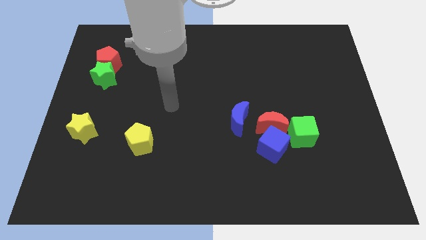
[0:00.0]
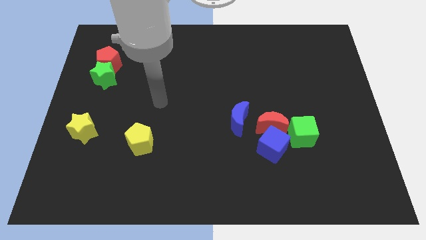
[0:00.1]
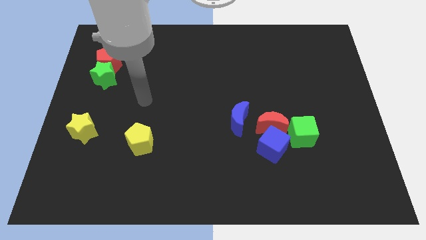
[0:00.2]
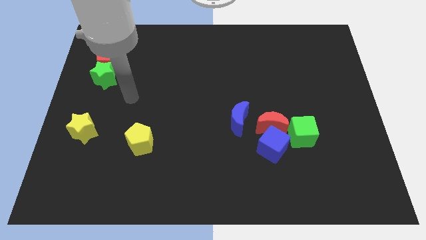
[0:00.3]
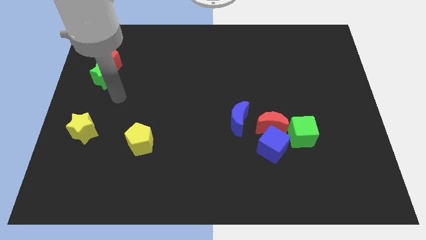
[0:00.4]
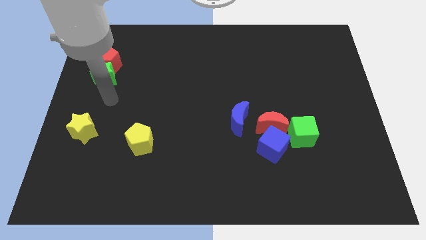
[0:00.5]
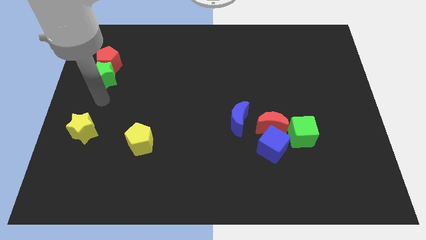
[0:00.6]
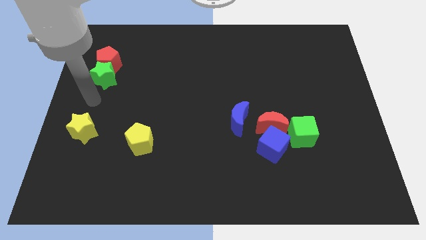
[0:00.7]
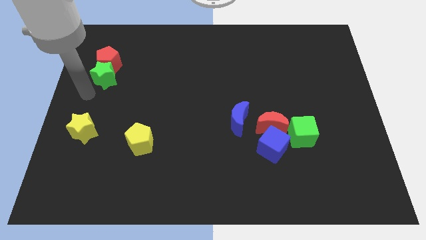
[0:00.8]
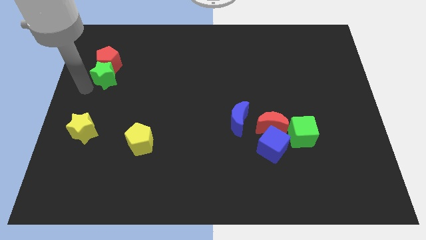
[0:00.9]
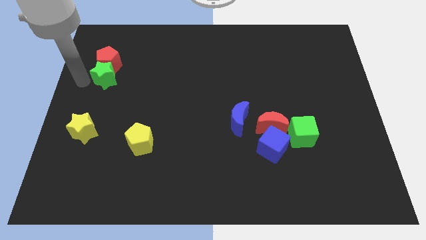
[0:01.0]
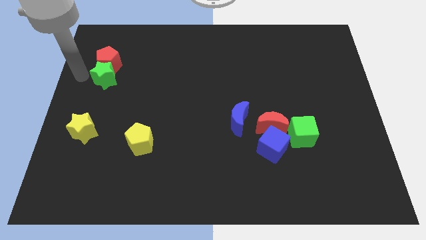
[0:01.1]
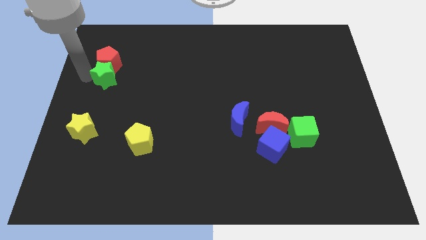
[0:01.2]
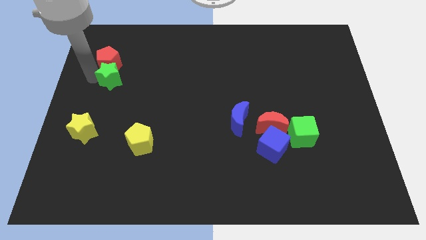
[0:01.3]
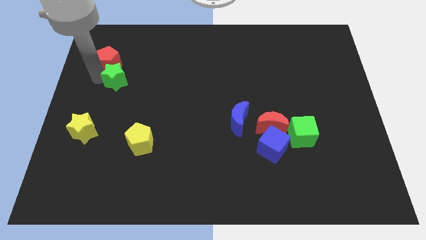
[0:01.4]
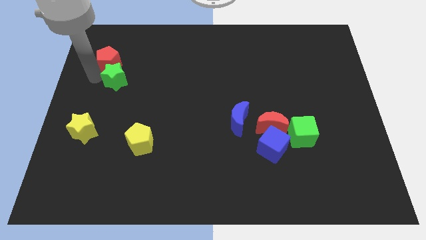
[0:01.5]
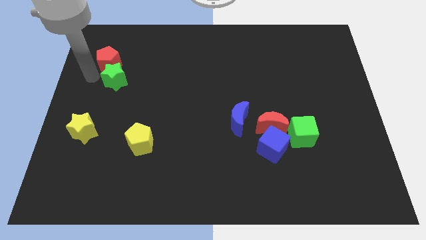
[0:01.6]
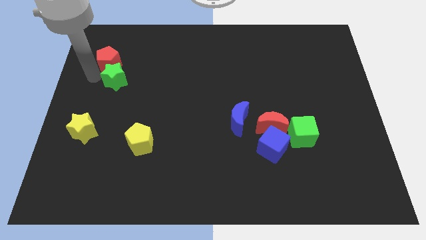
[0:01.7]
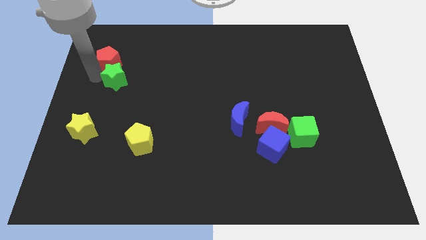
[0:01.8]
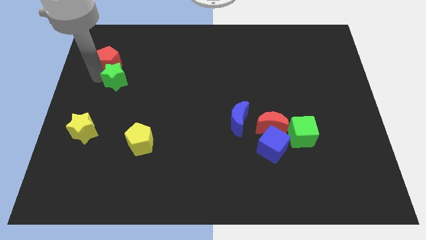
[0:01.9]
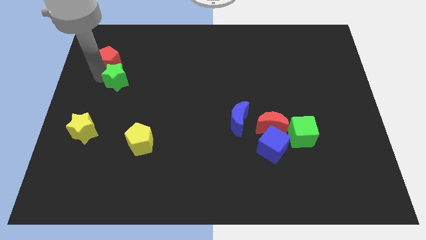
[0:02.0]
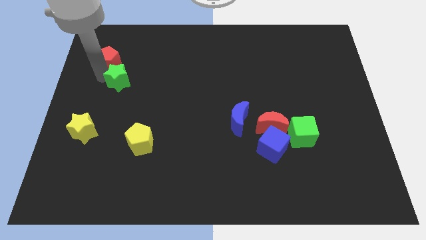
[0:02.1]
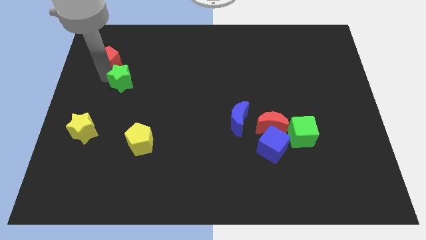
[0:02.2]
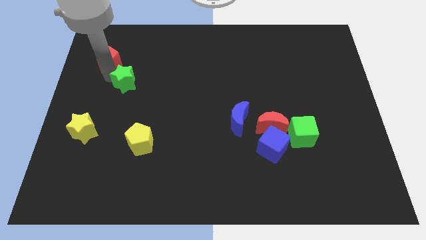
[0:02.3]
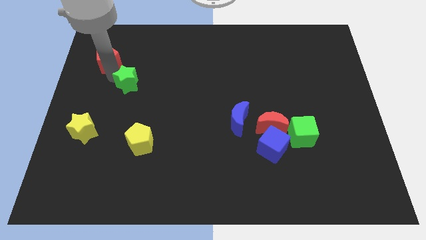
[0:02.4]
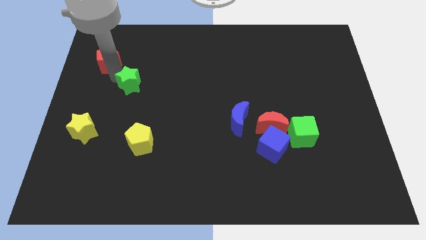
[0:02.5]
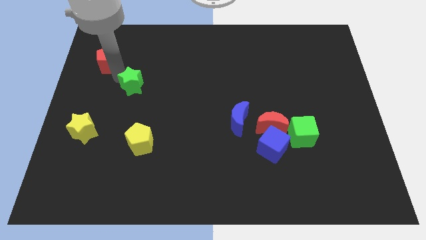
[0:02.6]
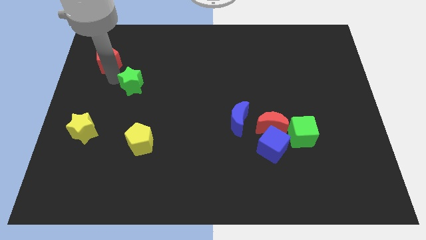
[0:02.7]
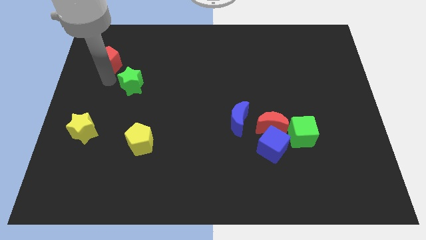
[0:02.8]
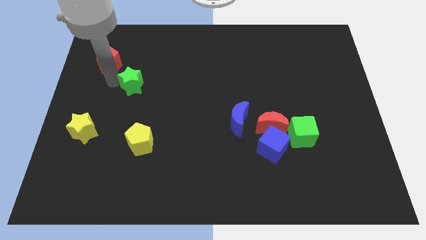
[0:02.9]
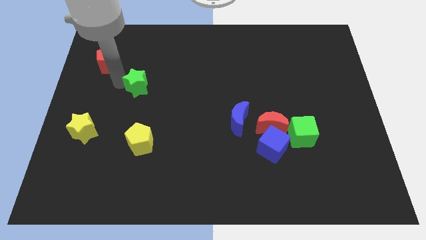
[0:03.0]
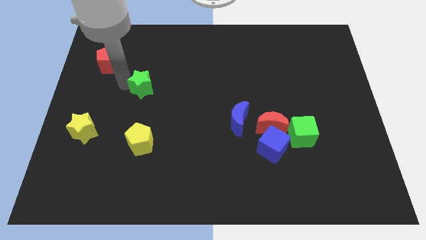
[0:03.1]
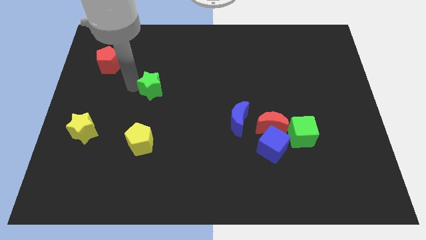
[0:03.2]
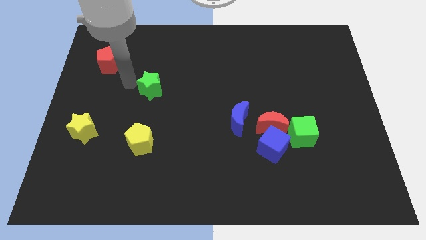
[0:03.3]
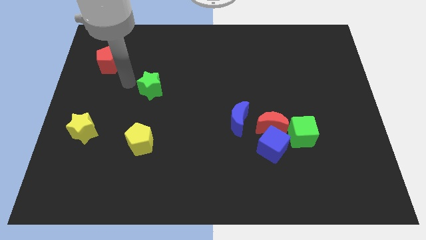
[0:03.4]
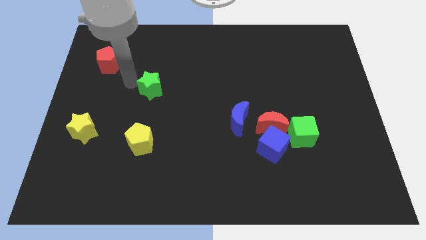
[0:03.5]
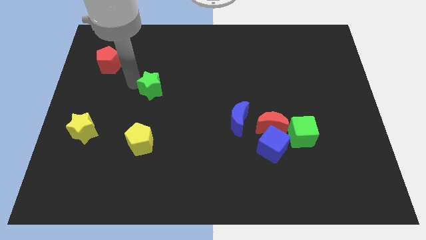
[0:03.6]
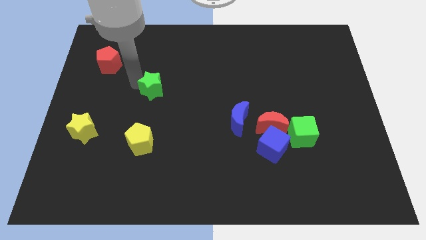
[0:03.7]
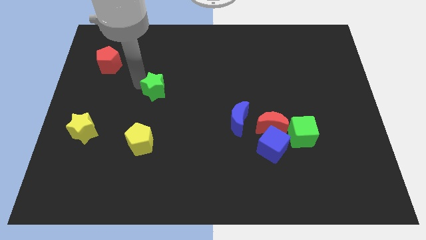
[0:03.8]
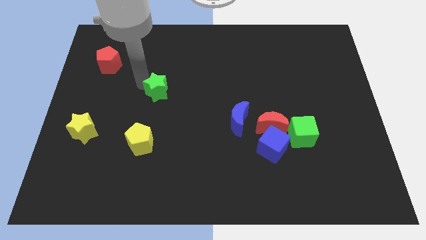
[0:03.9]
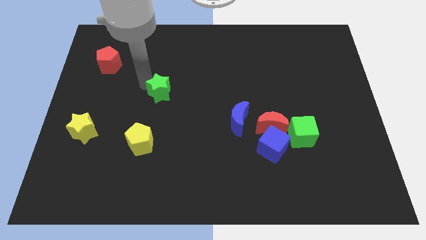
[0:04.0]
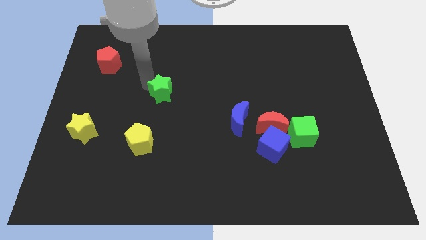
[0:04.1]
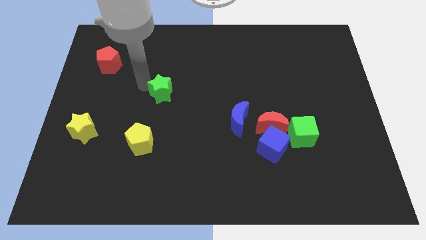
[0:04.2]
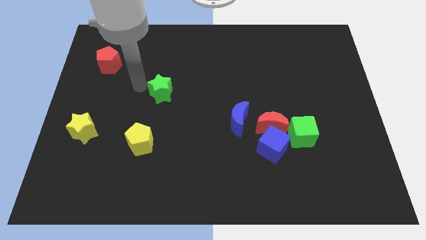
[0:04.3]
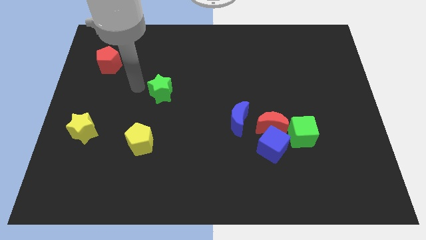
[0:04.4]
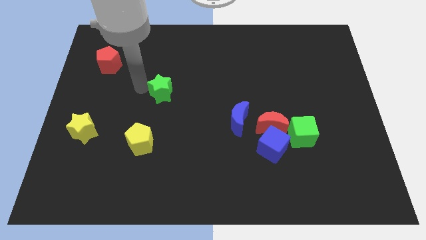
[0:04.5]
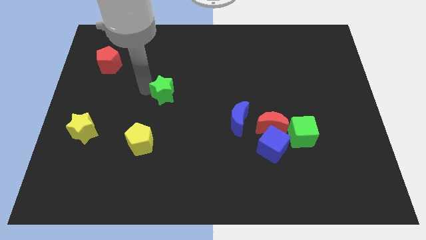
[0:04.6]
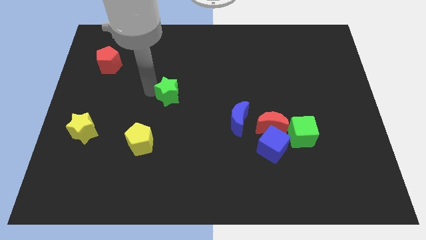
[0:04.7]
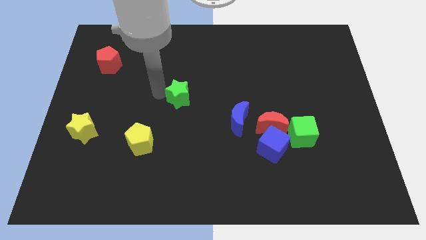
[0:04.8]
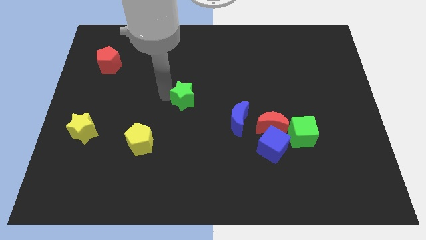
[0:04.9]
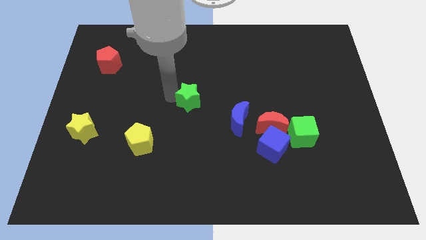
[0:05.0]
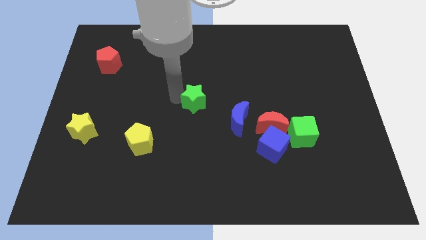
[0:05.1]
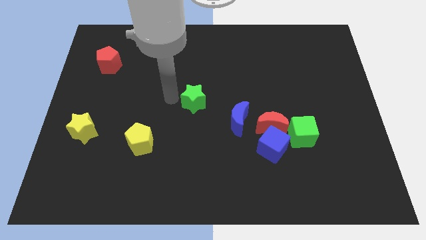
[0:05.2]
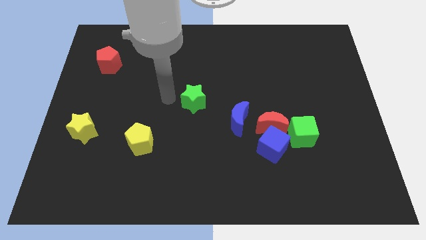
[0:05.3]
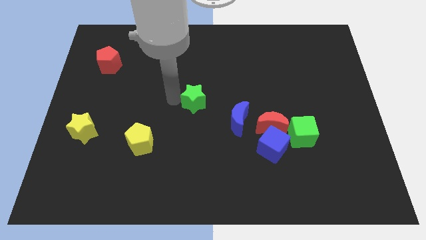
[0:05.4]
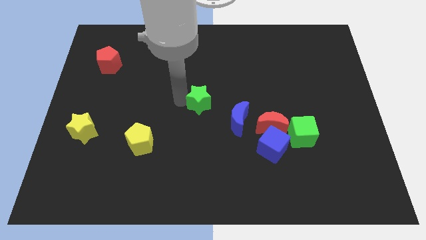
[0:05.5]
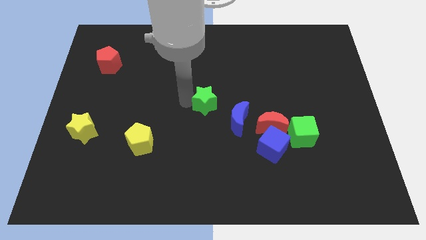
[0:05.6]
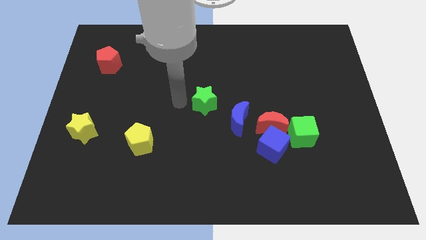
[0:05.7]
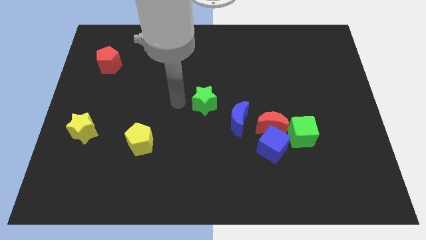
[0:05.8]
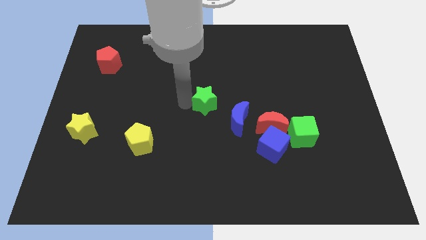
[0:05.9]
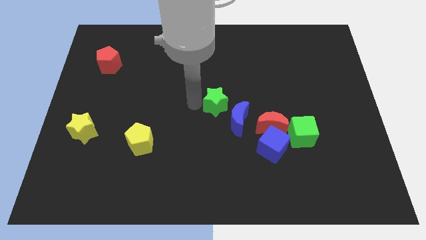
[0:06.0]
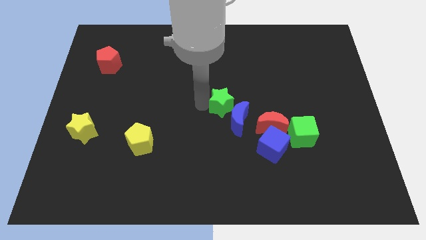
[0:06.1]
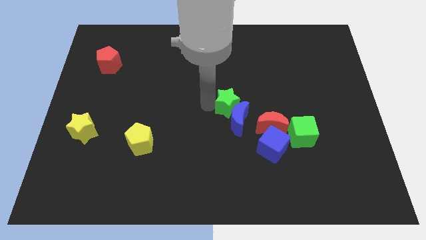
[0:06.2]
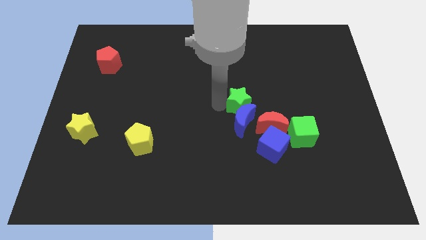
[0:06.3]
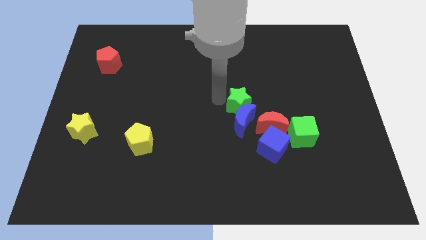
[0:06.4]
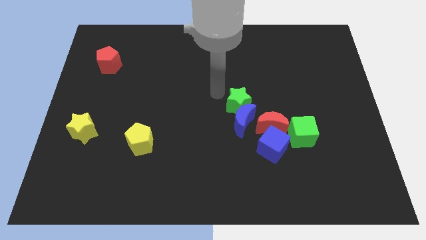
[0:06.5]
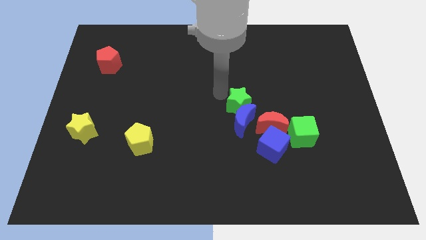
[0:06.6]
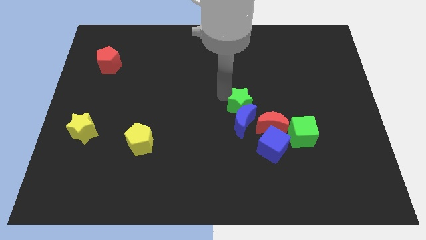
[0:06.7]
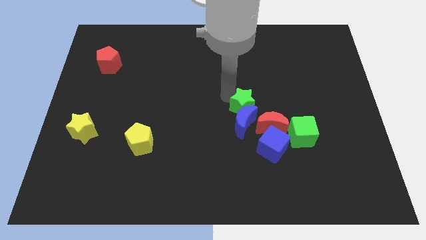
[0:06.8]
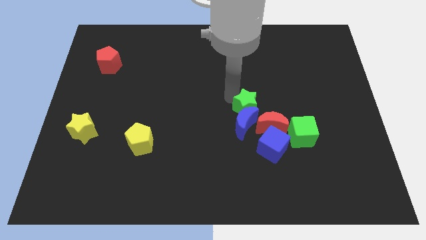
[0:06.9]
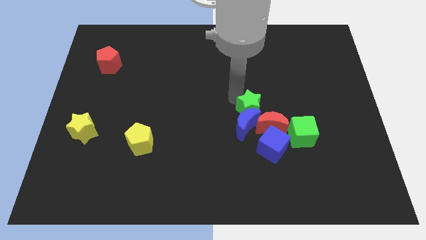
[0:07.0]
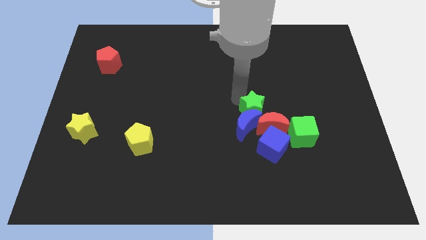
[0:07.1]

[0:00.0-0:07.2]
push the green star to the red moon
